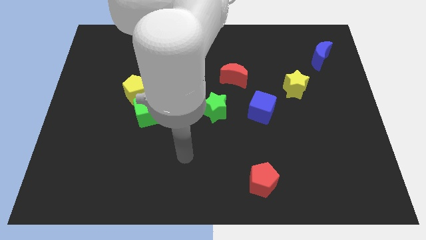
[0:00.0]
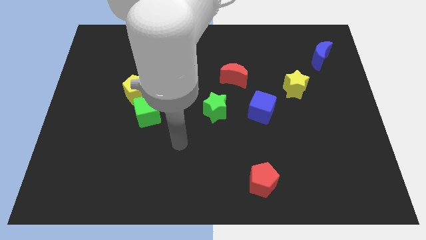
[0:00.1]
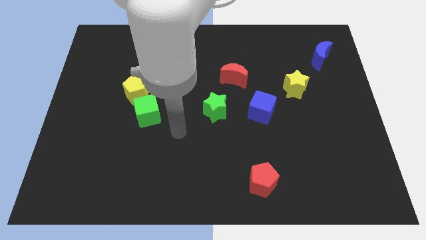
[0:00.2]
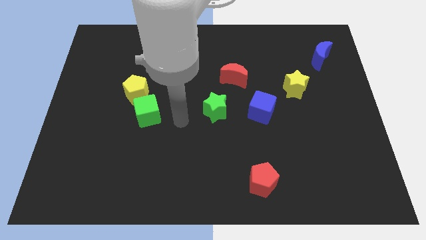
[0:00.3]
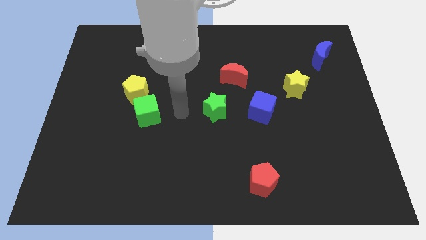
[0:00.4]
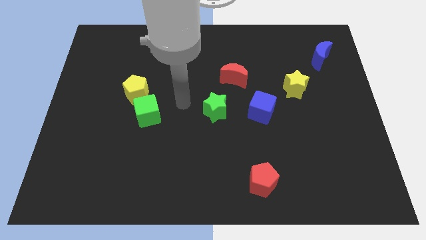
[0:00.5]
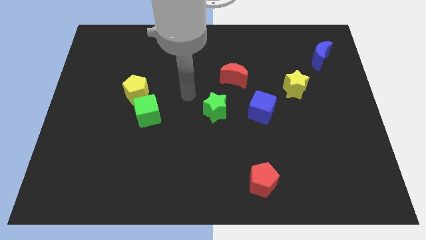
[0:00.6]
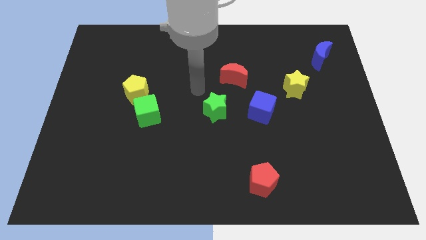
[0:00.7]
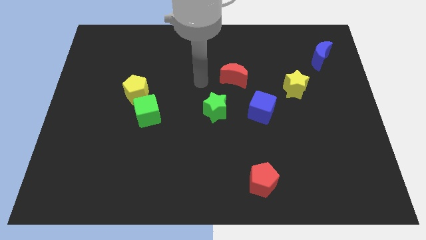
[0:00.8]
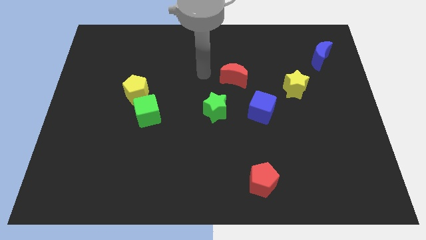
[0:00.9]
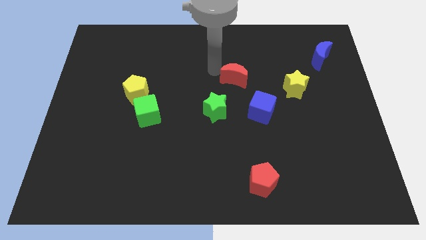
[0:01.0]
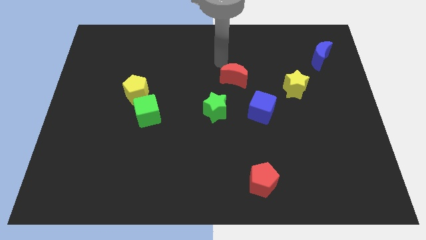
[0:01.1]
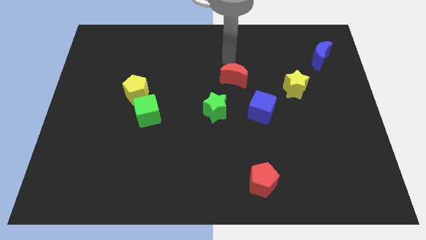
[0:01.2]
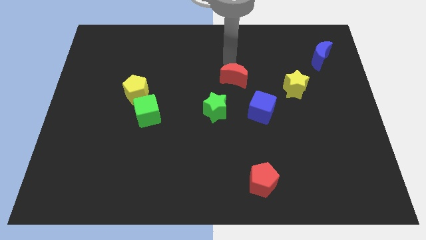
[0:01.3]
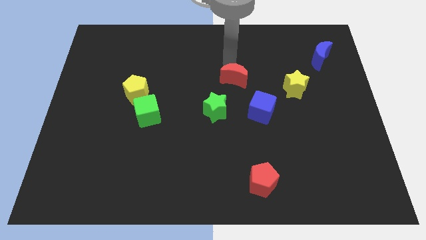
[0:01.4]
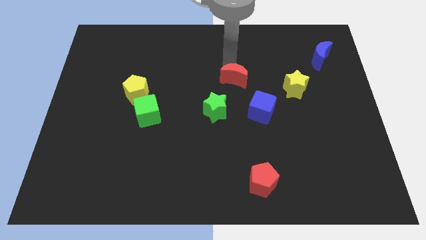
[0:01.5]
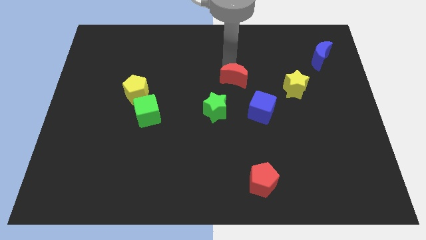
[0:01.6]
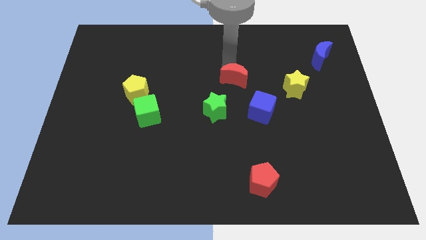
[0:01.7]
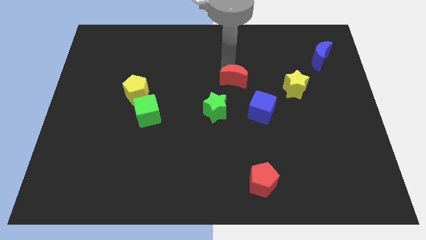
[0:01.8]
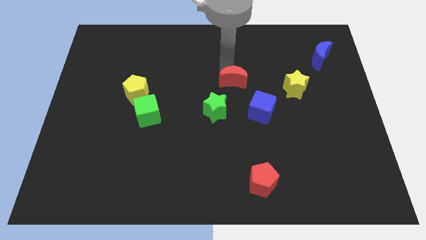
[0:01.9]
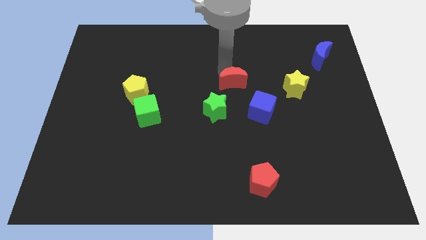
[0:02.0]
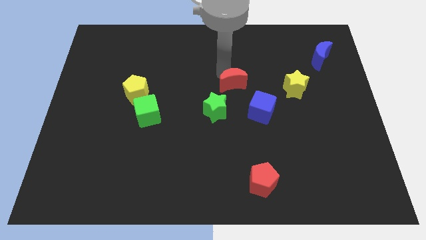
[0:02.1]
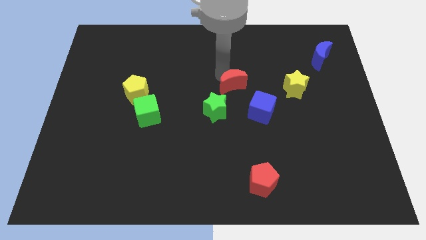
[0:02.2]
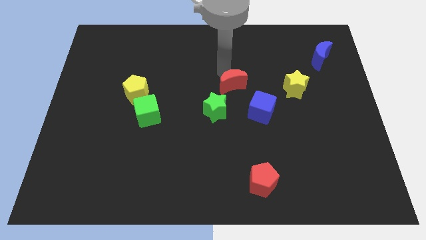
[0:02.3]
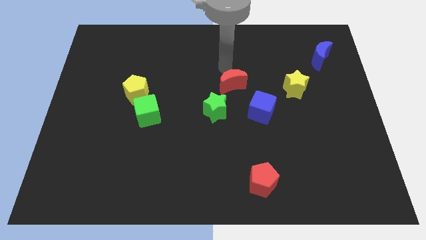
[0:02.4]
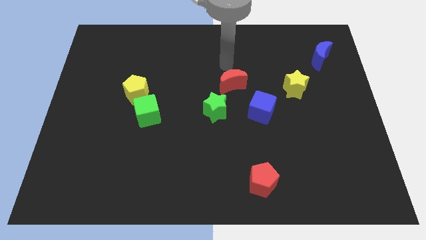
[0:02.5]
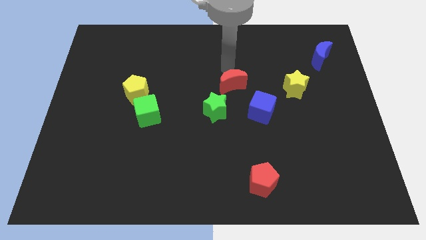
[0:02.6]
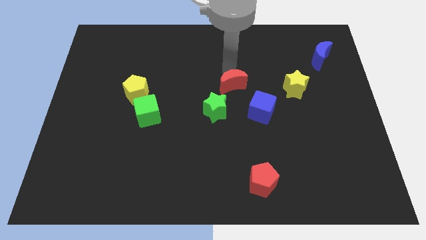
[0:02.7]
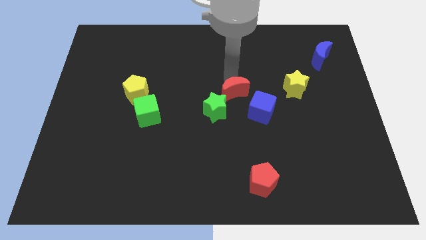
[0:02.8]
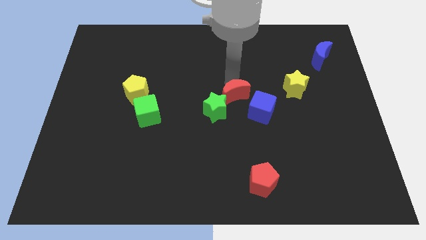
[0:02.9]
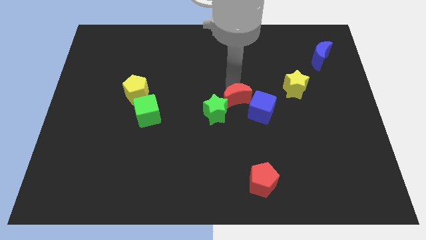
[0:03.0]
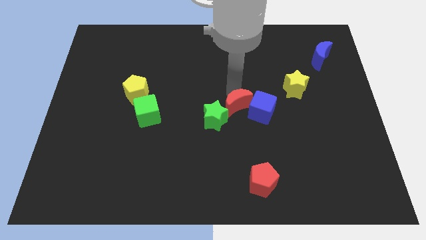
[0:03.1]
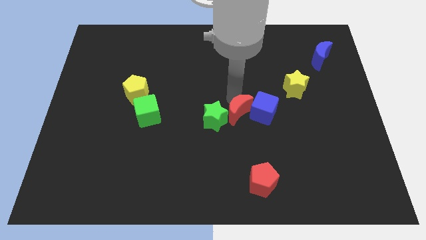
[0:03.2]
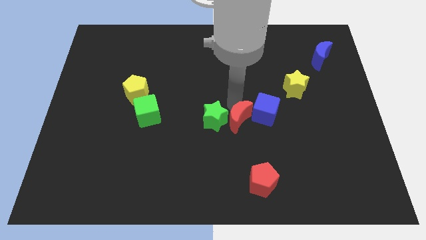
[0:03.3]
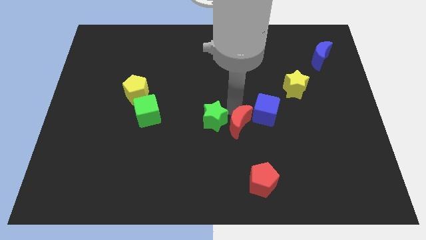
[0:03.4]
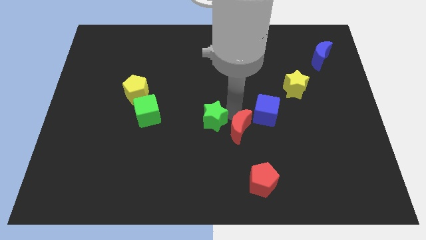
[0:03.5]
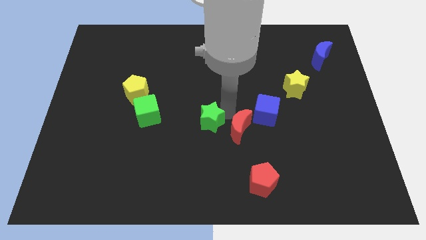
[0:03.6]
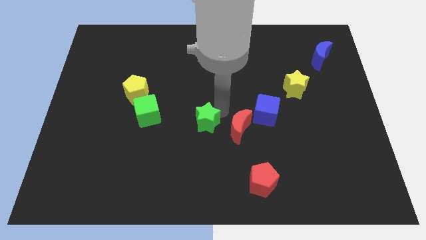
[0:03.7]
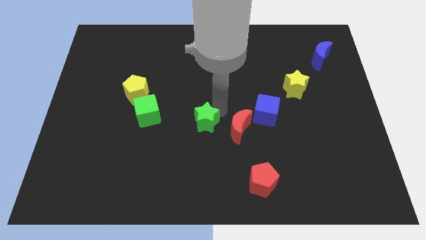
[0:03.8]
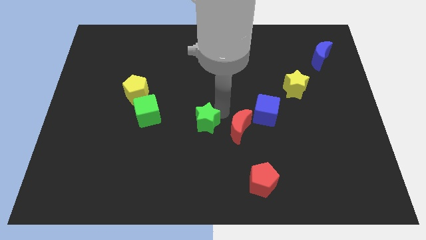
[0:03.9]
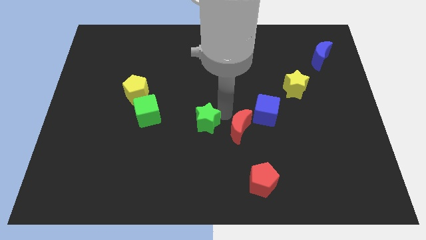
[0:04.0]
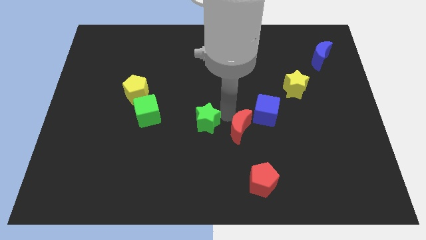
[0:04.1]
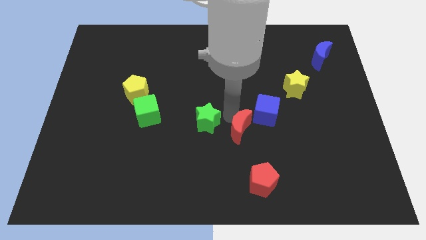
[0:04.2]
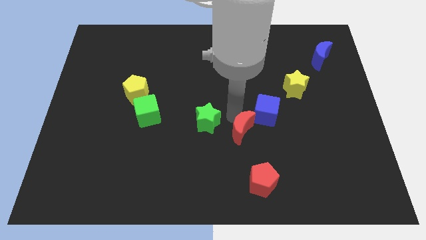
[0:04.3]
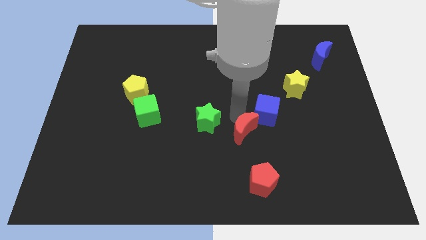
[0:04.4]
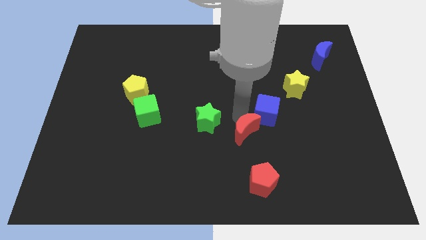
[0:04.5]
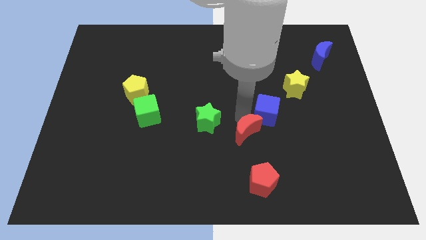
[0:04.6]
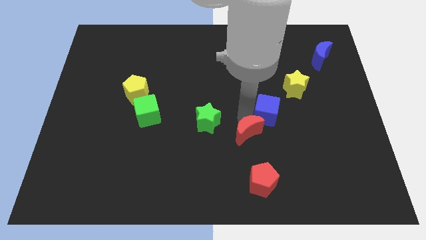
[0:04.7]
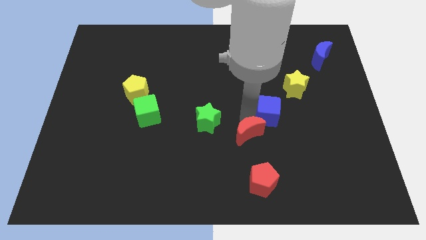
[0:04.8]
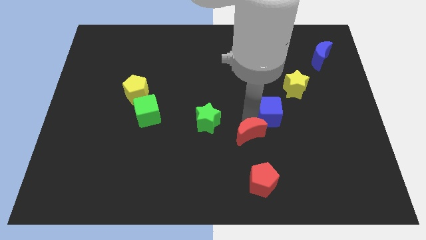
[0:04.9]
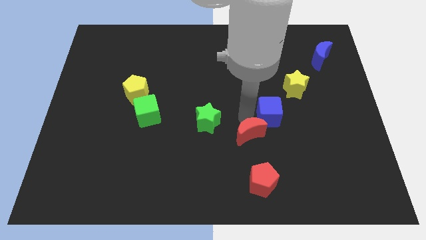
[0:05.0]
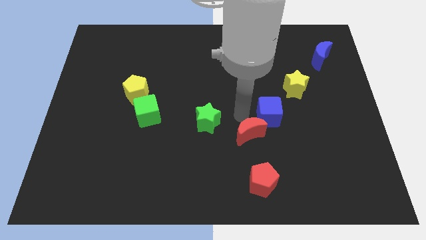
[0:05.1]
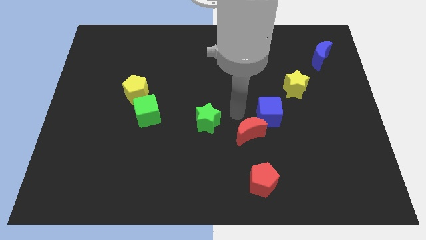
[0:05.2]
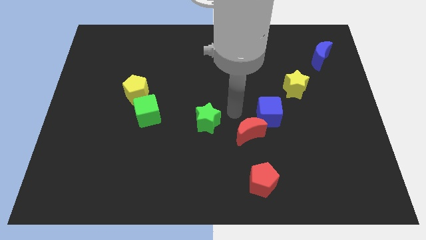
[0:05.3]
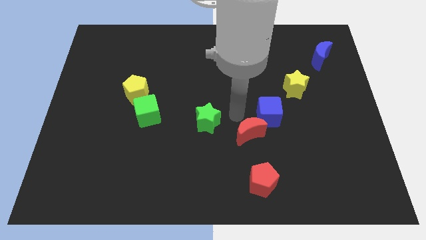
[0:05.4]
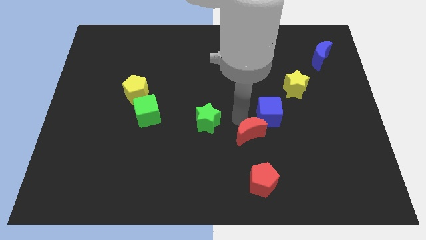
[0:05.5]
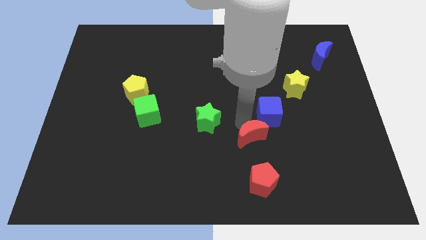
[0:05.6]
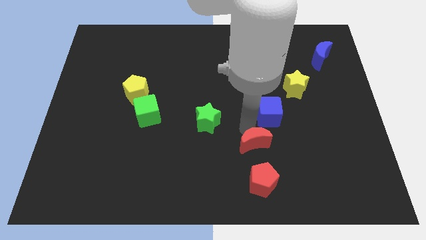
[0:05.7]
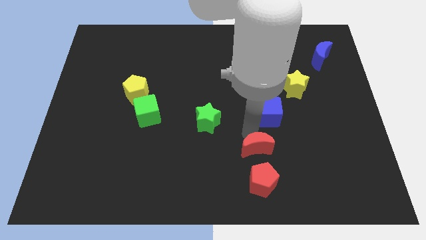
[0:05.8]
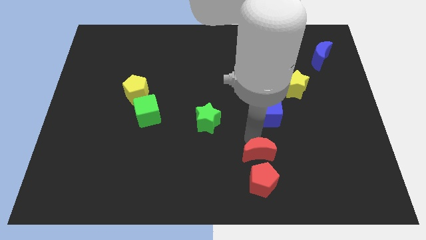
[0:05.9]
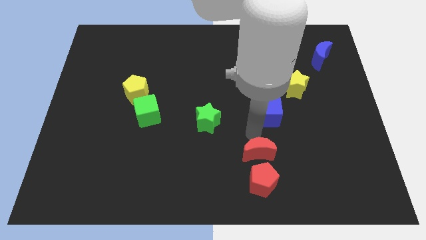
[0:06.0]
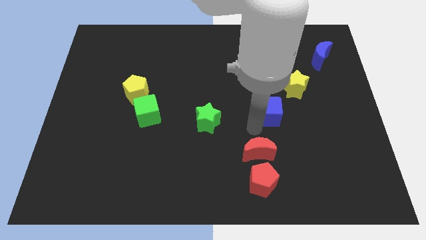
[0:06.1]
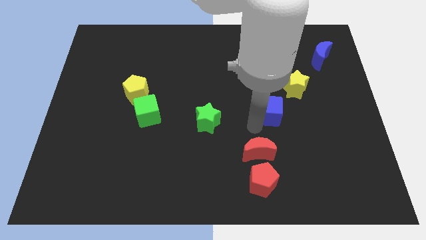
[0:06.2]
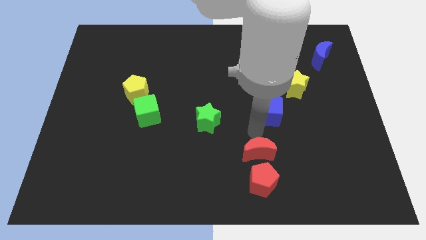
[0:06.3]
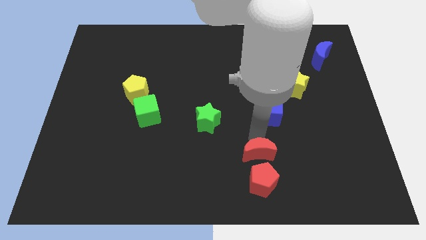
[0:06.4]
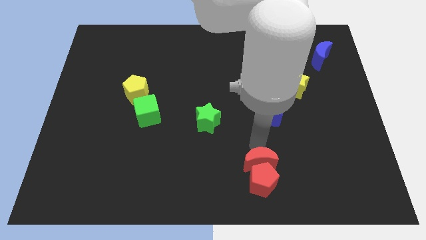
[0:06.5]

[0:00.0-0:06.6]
slide the red moon to the red pentagon

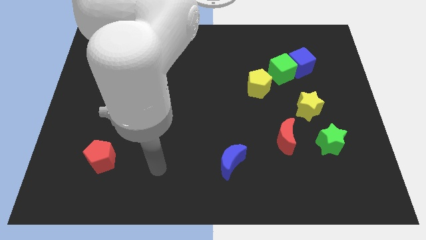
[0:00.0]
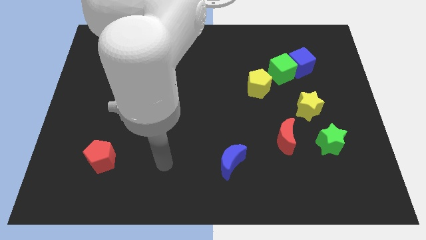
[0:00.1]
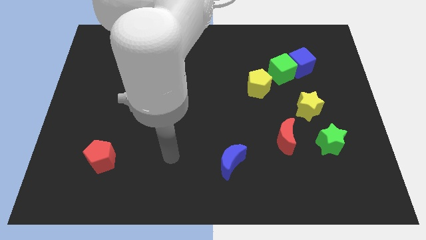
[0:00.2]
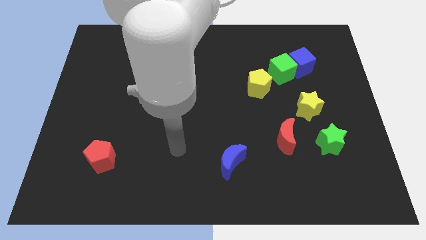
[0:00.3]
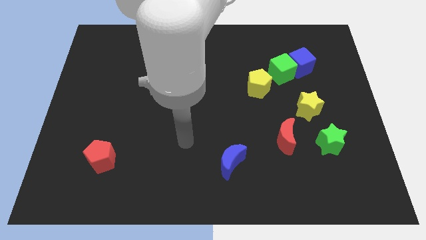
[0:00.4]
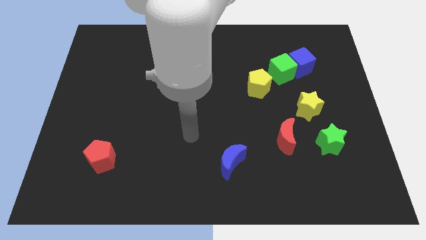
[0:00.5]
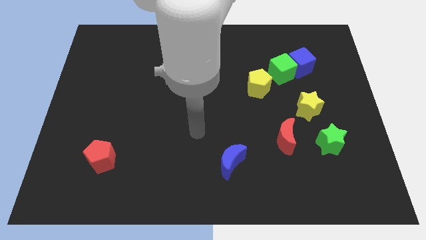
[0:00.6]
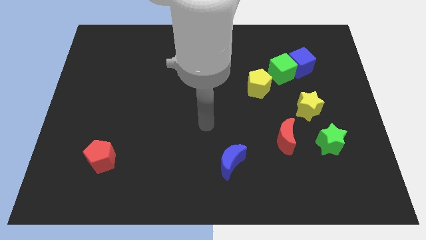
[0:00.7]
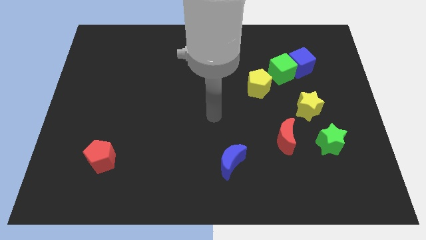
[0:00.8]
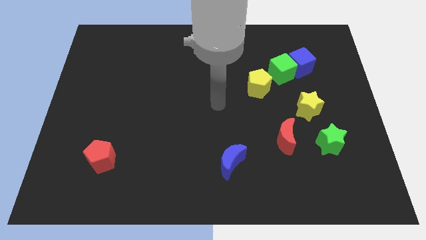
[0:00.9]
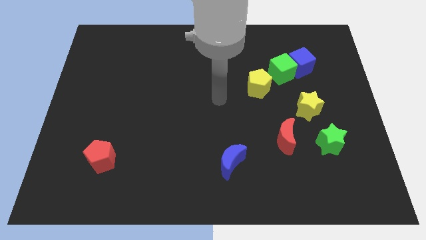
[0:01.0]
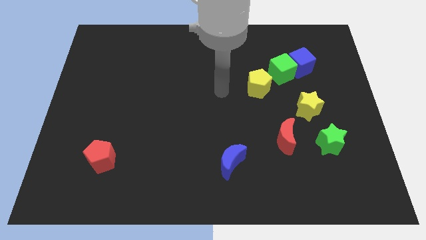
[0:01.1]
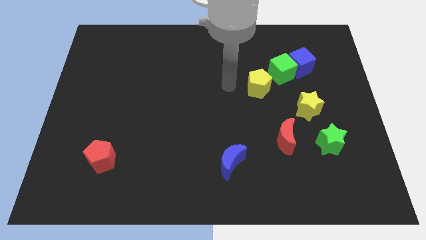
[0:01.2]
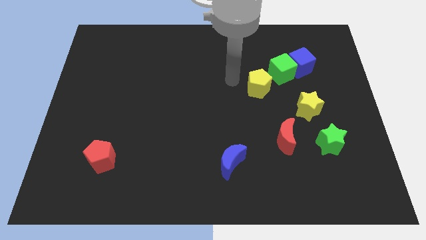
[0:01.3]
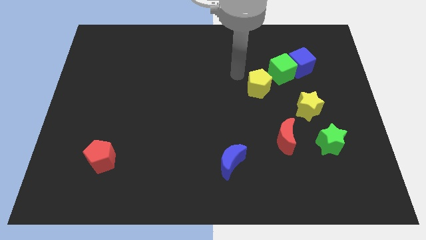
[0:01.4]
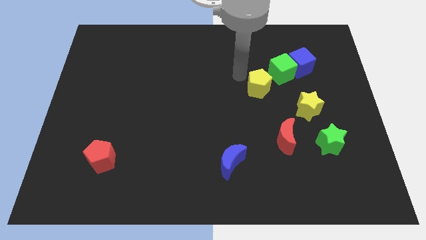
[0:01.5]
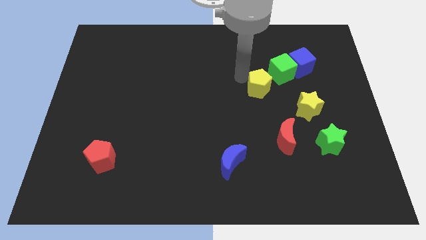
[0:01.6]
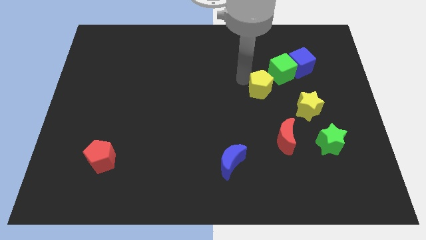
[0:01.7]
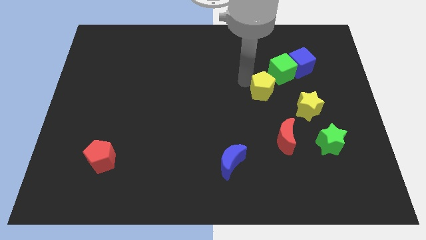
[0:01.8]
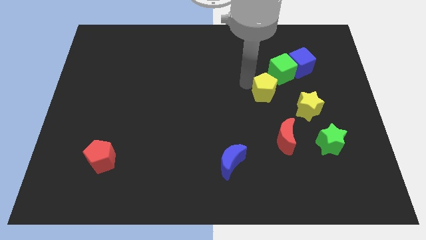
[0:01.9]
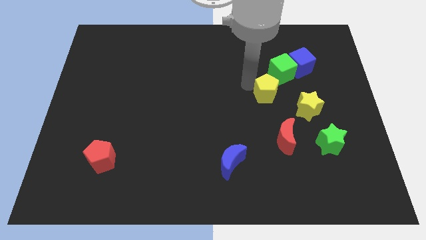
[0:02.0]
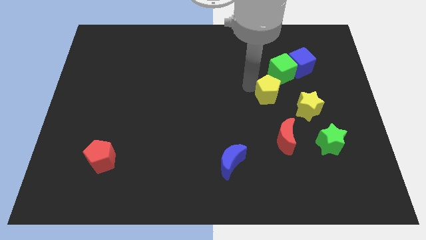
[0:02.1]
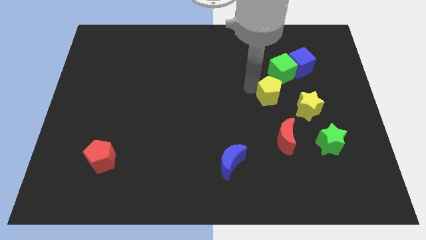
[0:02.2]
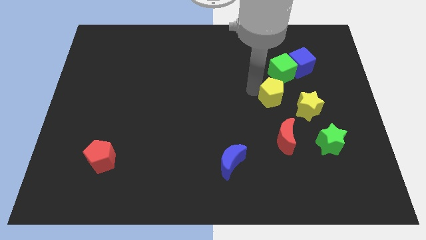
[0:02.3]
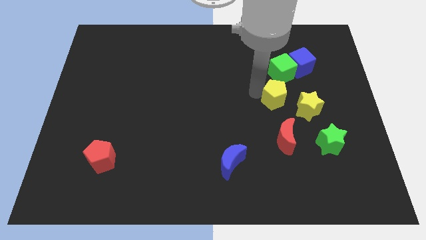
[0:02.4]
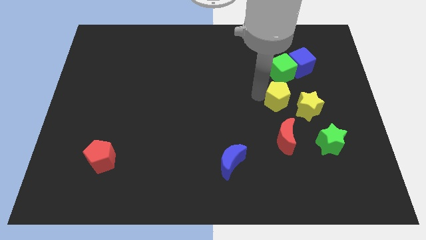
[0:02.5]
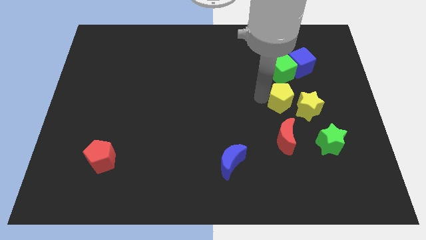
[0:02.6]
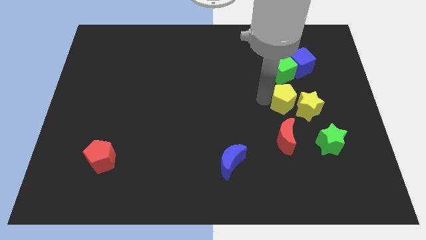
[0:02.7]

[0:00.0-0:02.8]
move the yellow pentagon close to the yellow star
